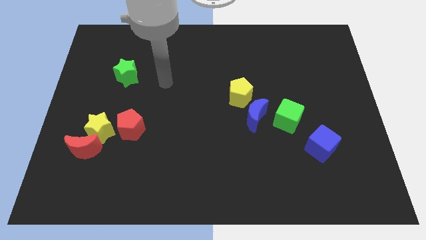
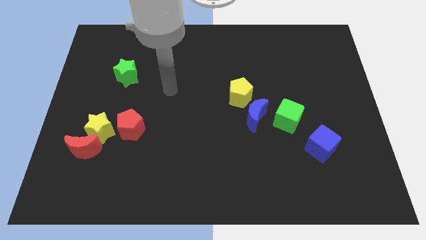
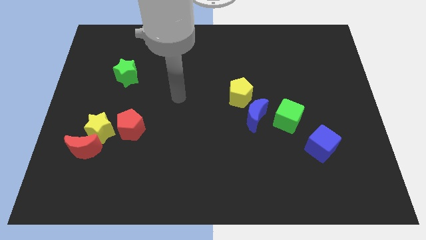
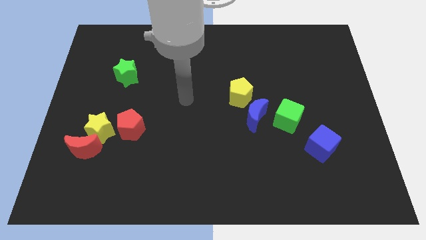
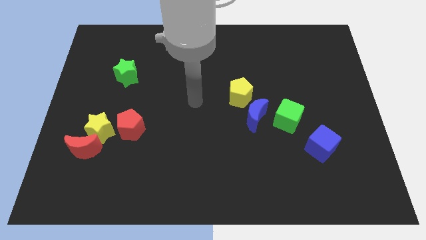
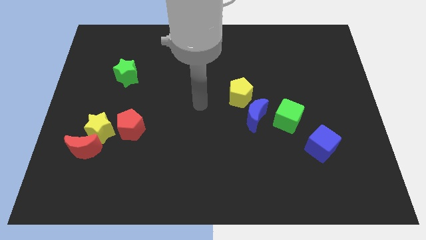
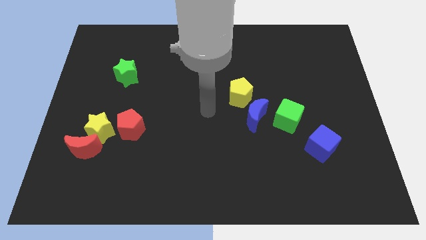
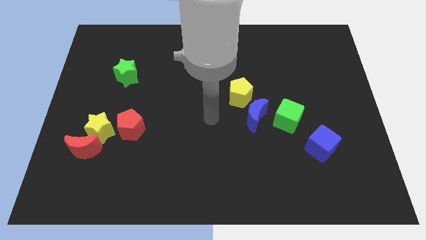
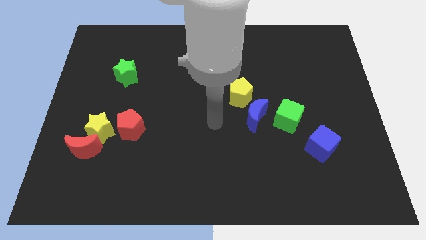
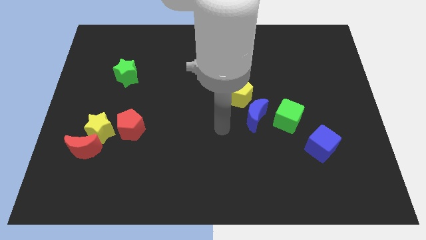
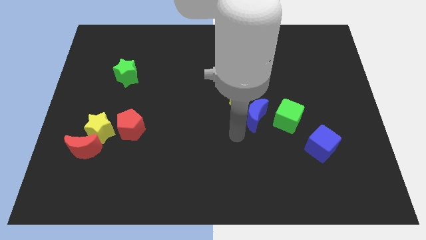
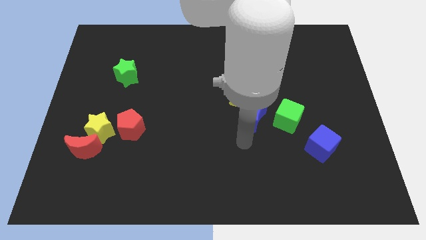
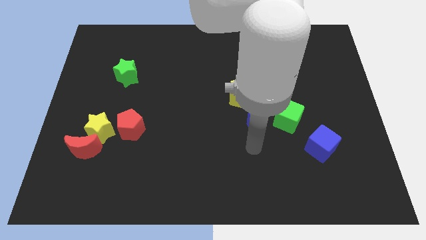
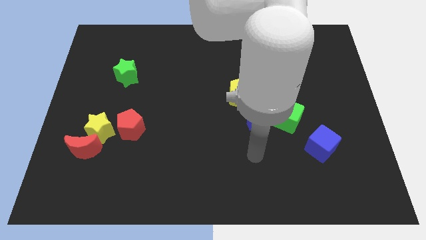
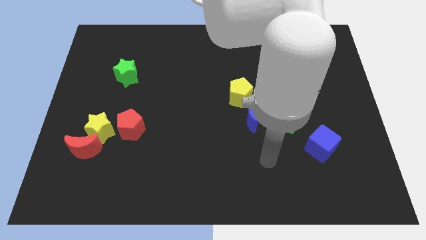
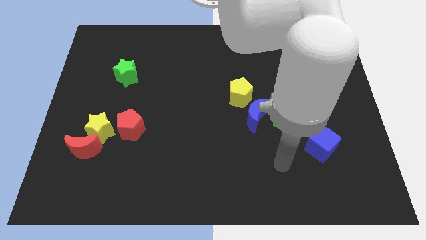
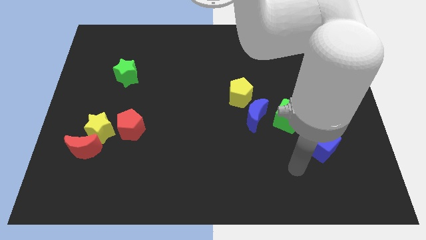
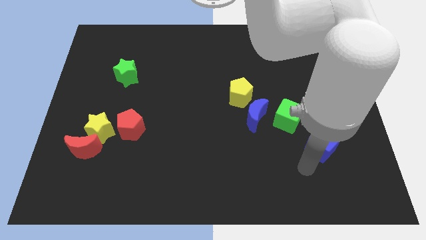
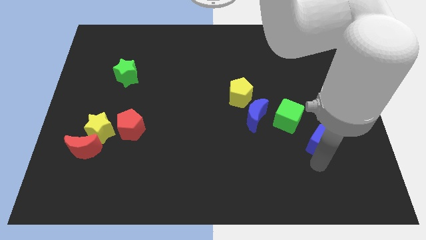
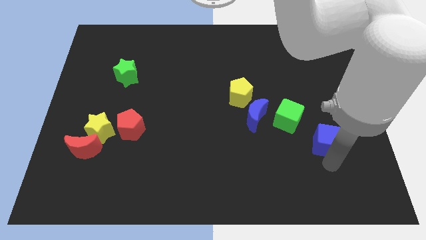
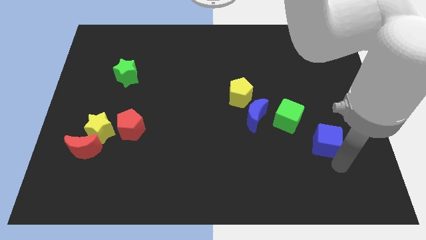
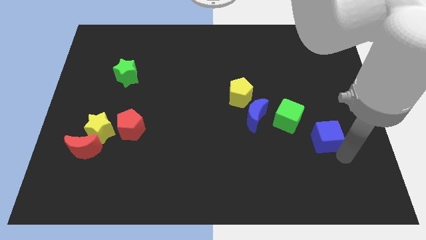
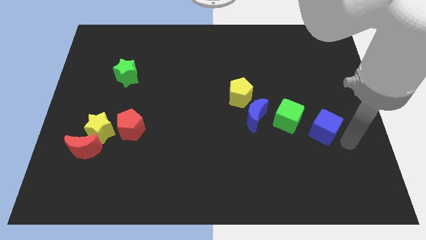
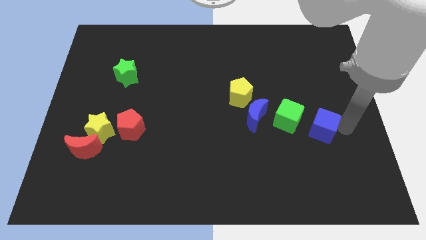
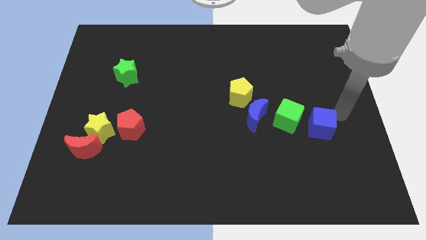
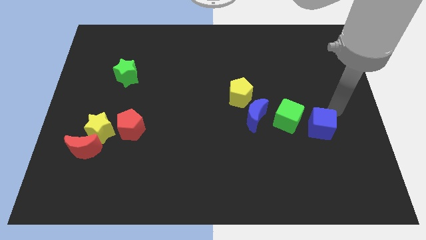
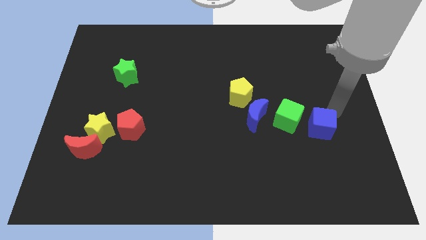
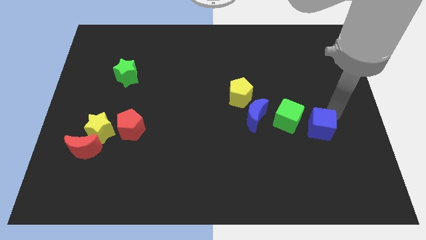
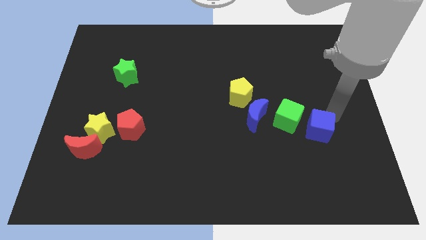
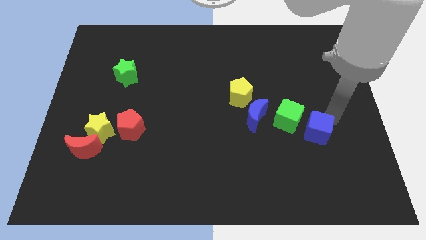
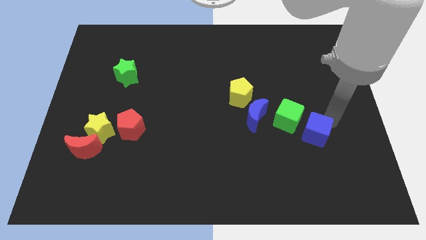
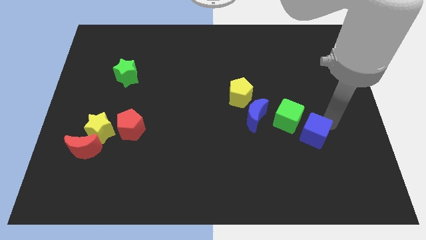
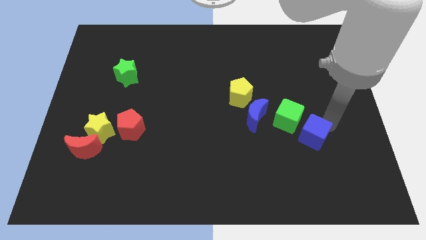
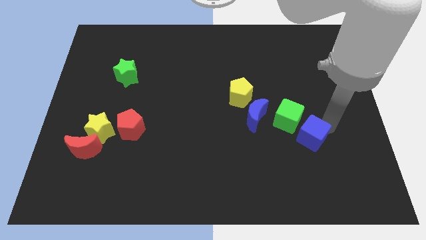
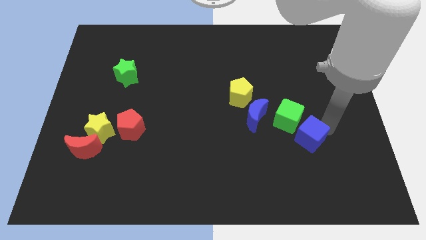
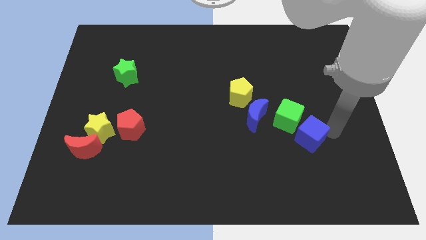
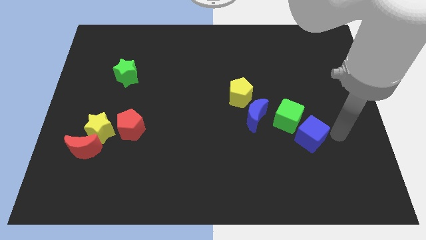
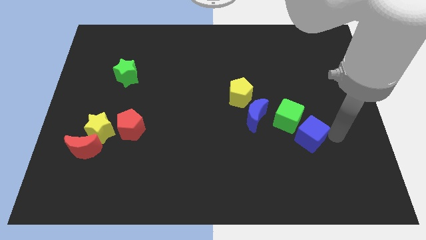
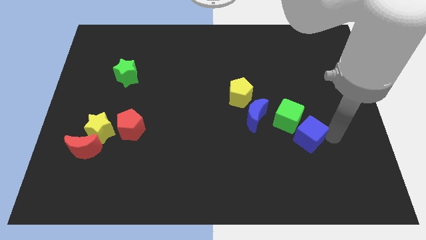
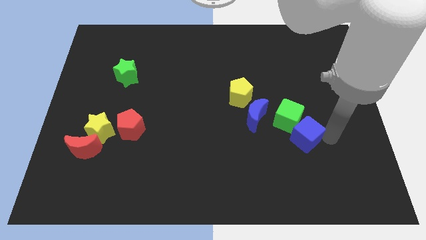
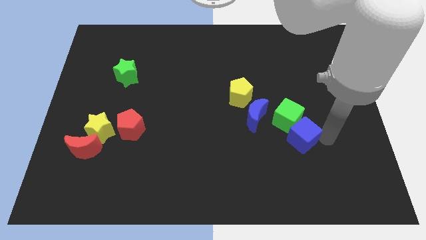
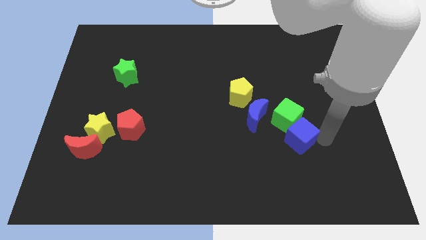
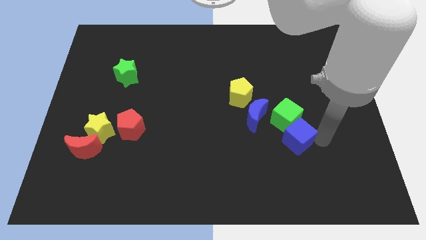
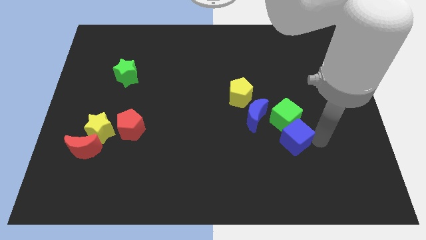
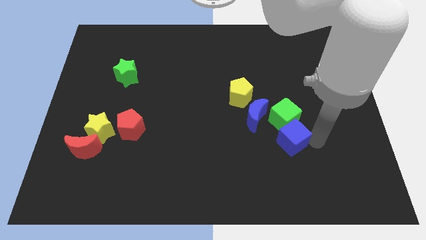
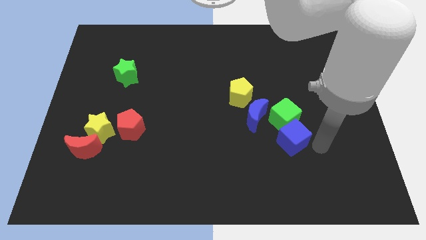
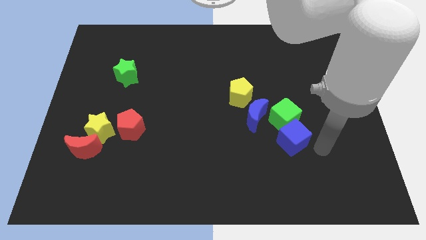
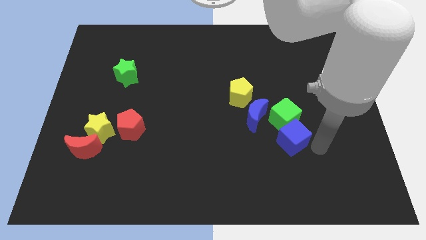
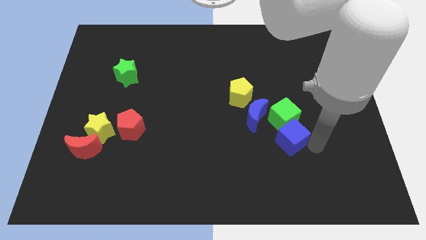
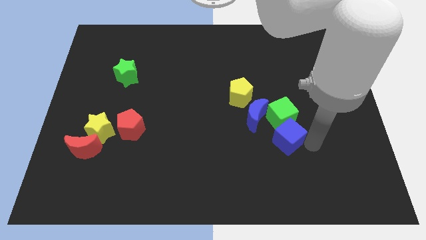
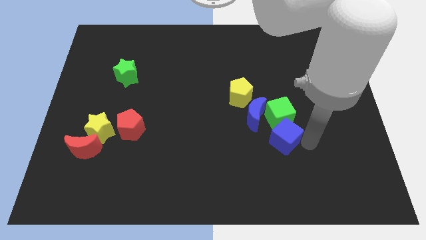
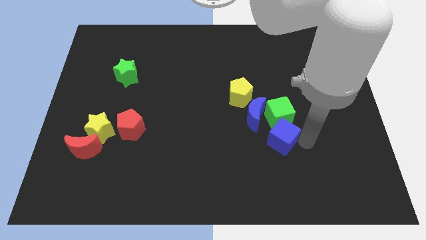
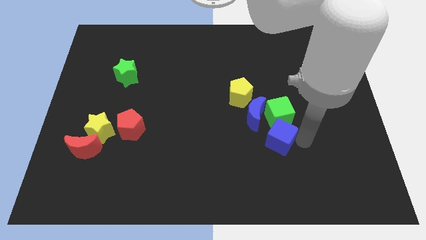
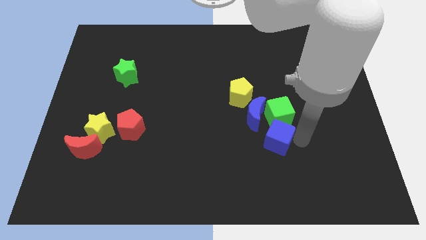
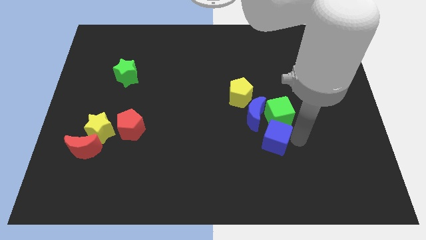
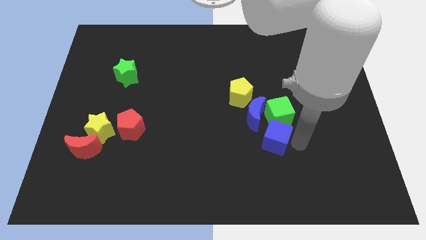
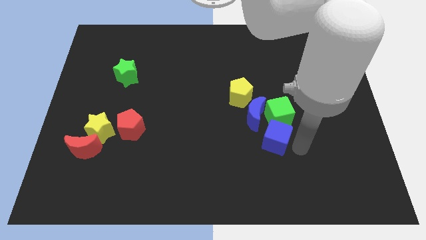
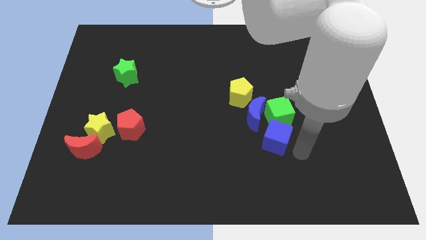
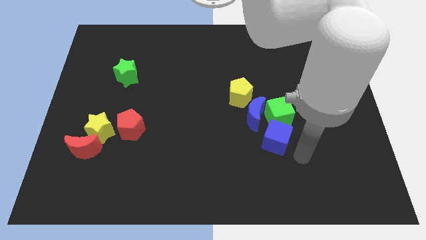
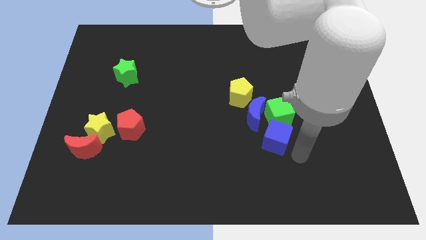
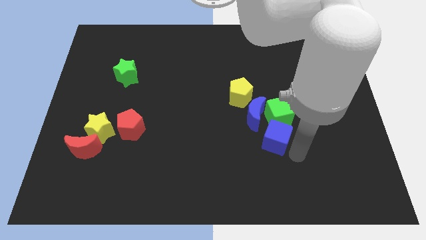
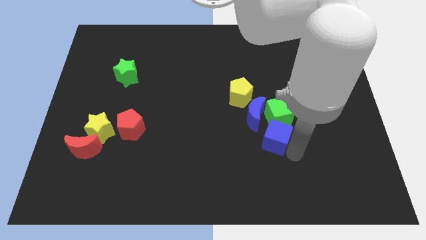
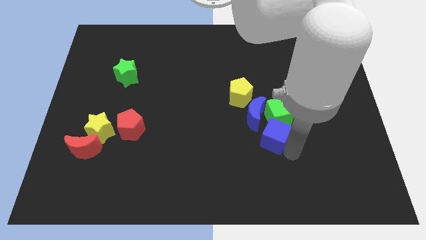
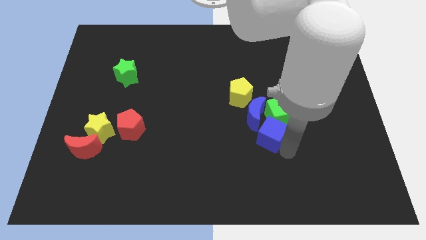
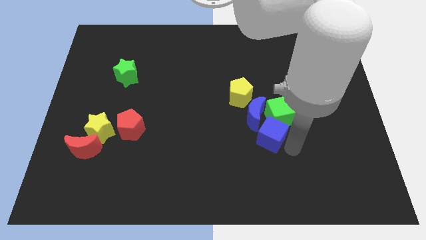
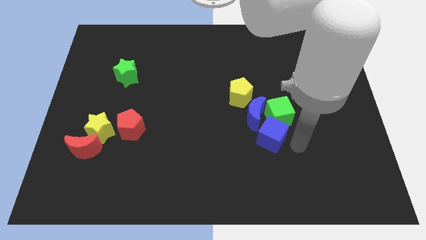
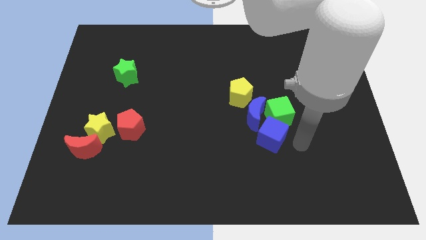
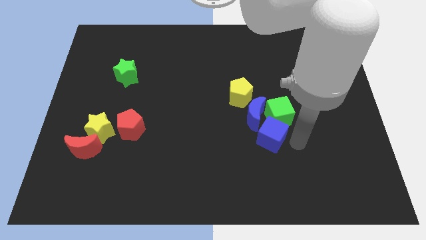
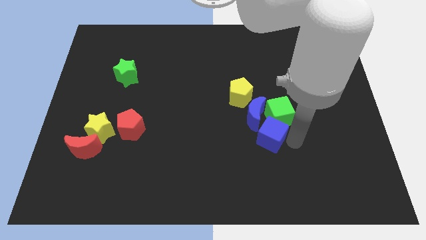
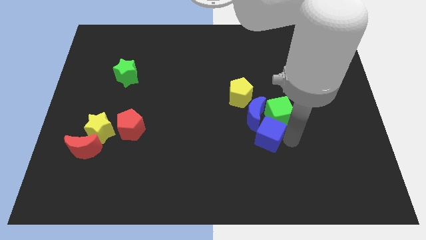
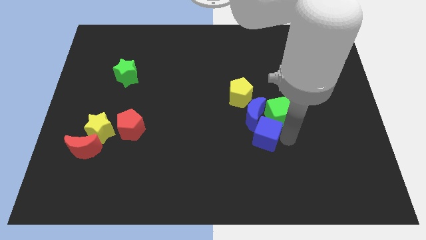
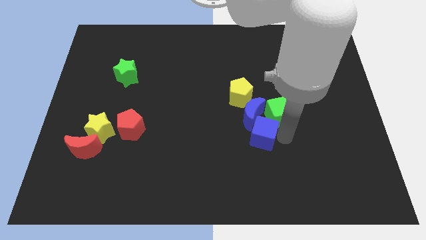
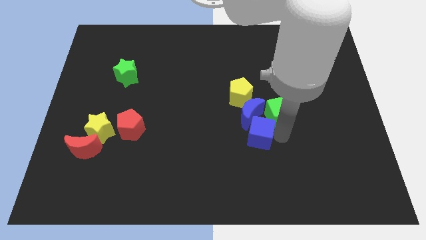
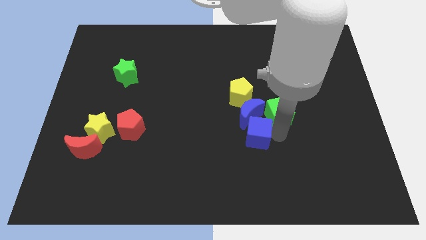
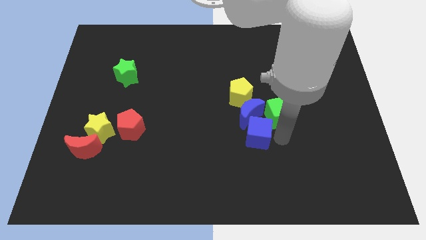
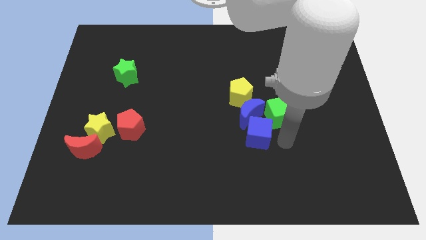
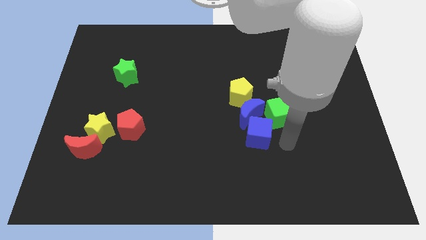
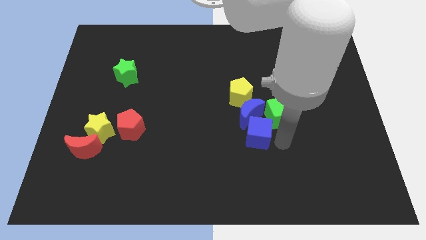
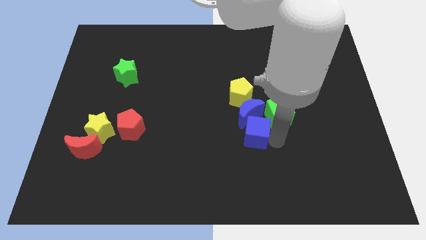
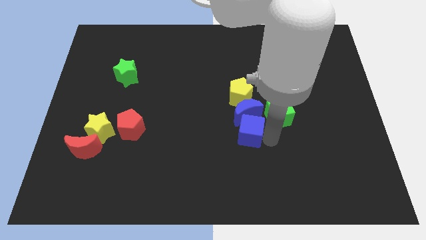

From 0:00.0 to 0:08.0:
push the blue cube to the center
